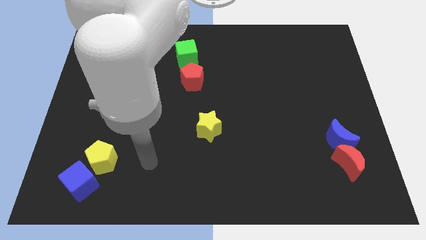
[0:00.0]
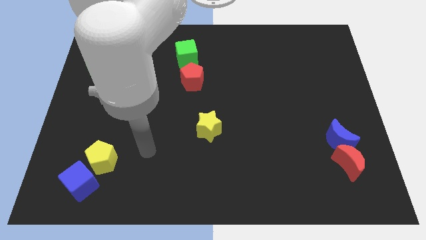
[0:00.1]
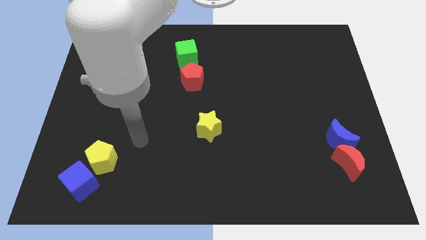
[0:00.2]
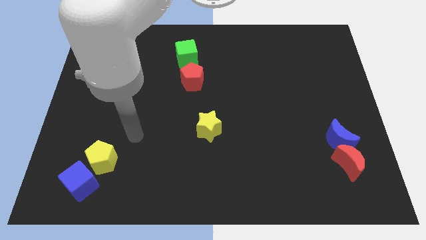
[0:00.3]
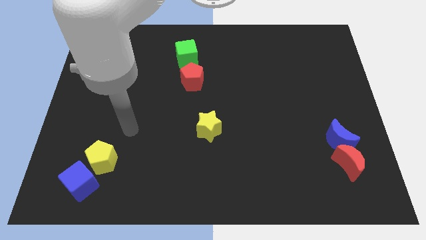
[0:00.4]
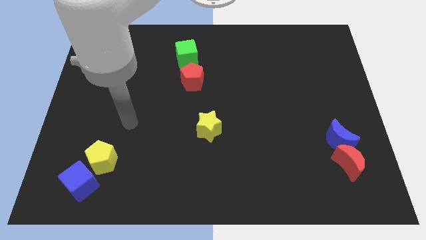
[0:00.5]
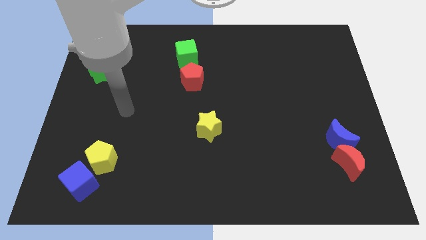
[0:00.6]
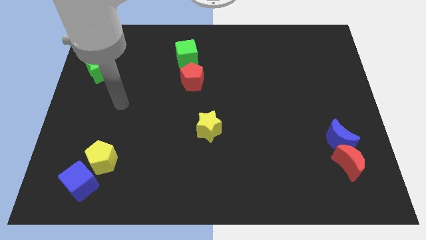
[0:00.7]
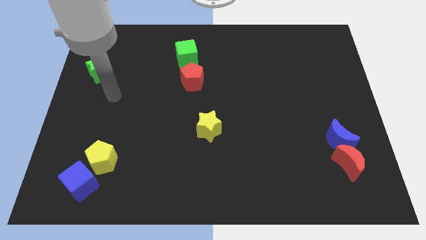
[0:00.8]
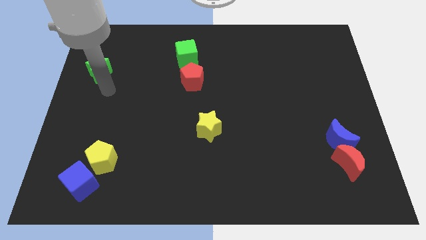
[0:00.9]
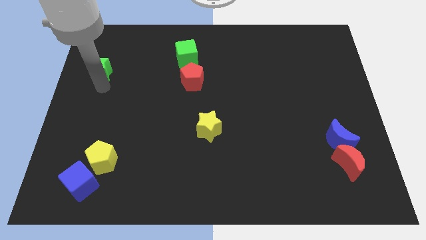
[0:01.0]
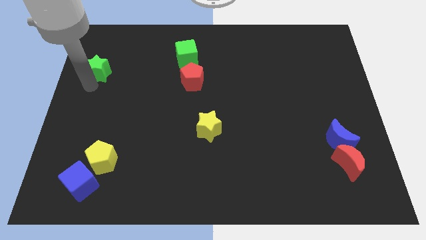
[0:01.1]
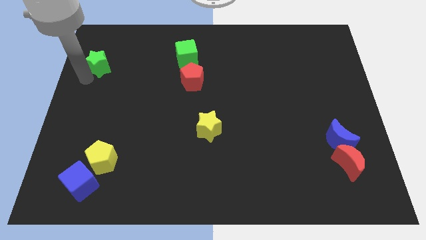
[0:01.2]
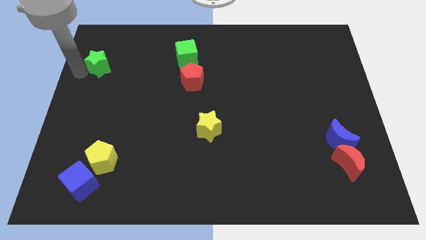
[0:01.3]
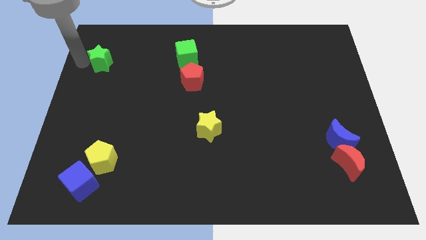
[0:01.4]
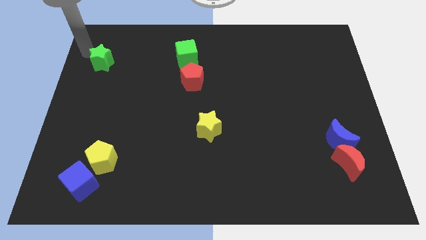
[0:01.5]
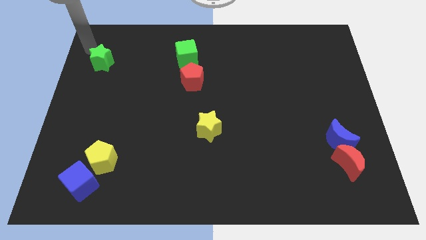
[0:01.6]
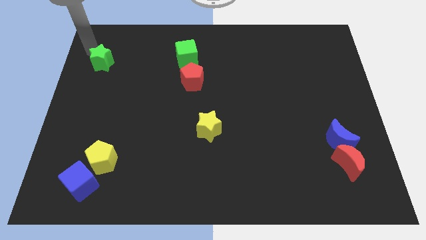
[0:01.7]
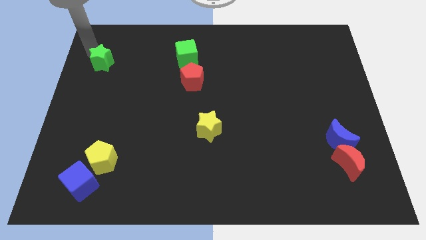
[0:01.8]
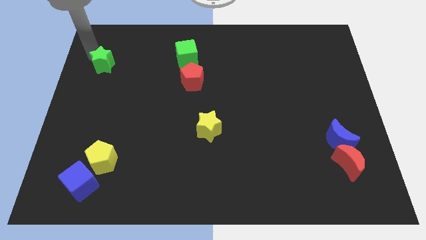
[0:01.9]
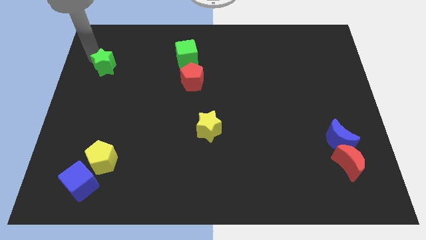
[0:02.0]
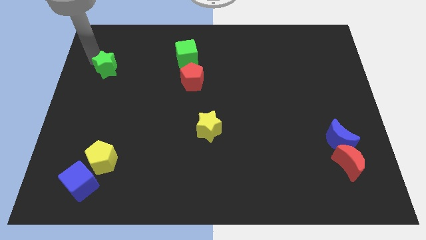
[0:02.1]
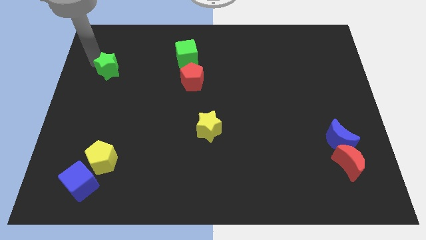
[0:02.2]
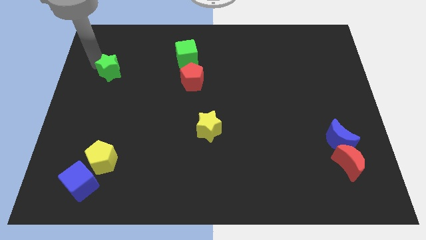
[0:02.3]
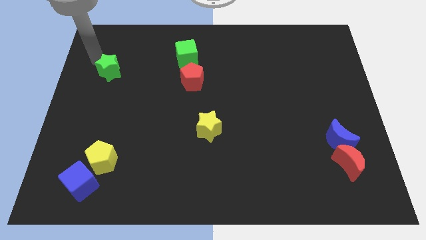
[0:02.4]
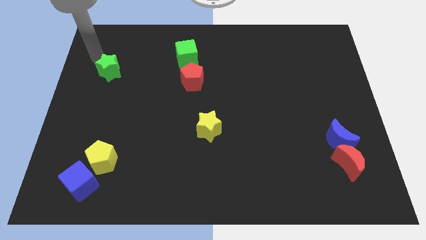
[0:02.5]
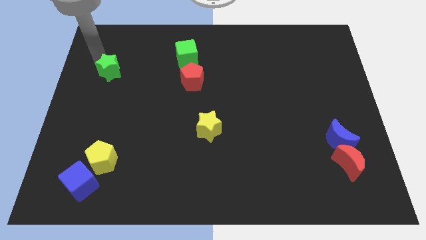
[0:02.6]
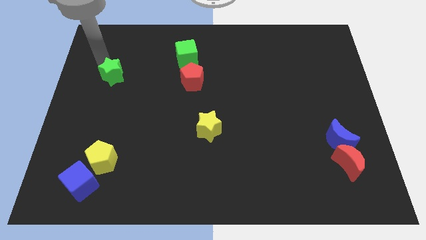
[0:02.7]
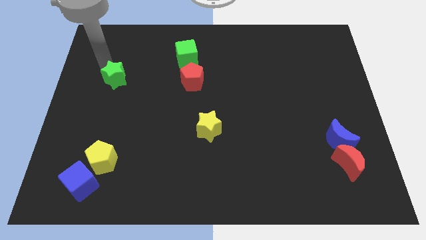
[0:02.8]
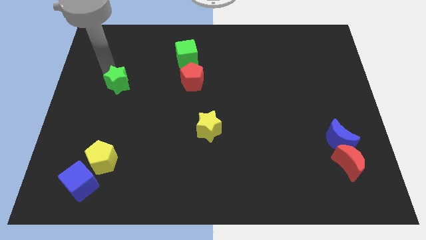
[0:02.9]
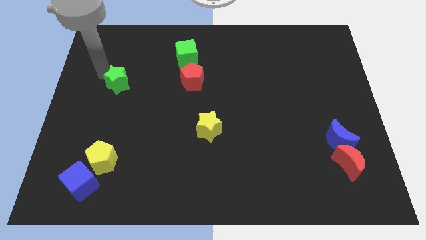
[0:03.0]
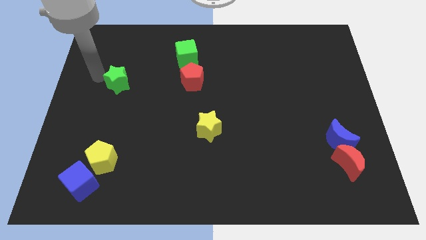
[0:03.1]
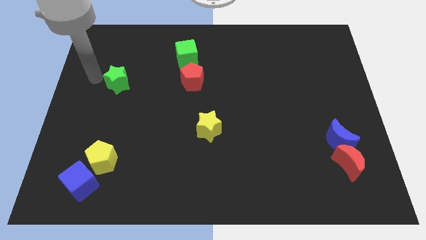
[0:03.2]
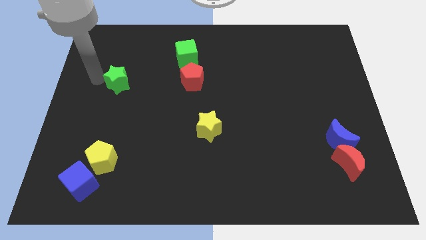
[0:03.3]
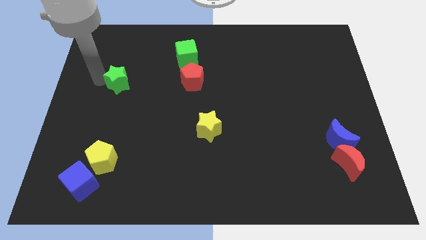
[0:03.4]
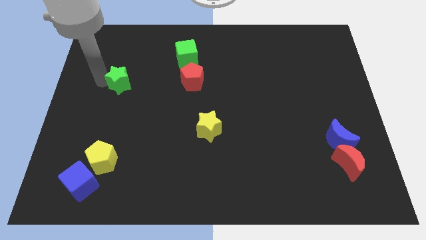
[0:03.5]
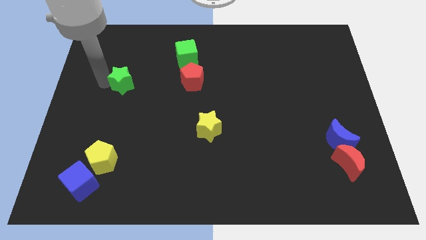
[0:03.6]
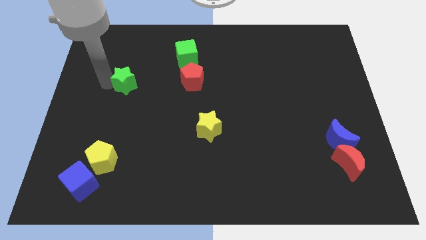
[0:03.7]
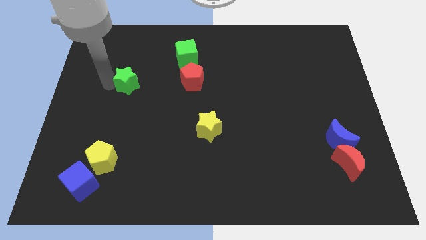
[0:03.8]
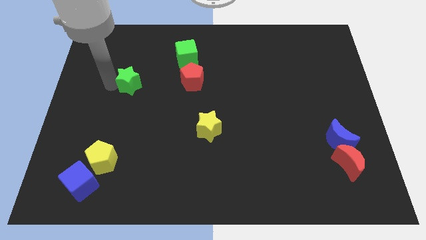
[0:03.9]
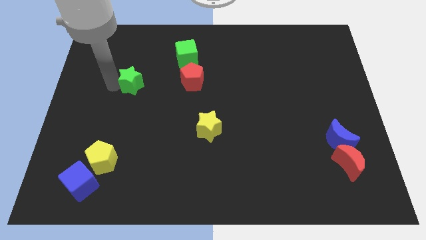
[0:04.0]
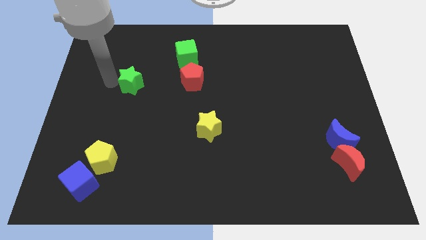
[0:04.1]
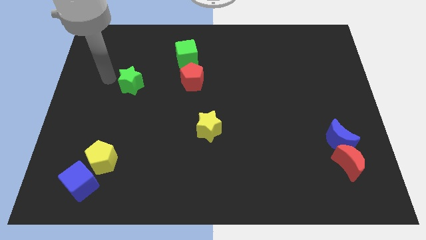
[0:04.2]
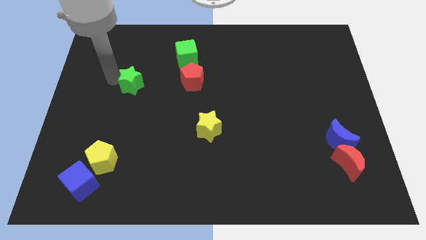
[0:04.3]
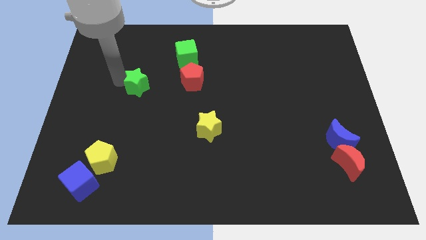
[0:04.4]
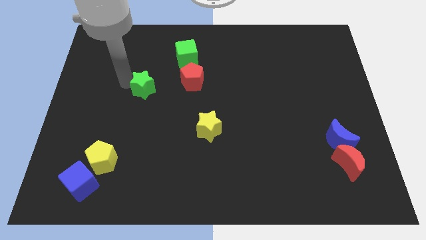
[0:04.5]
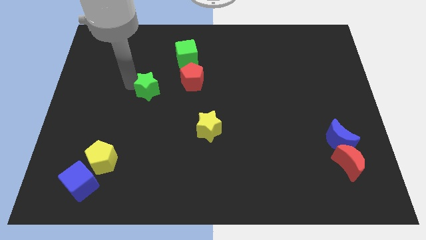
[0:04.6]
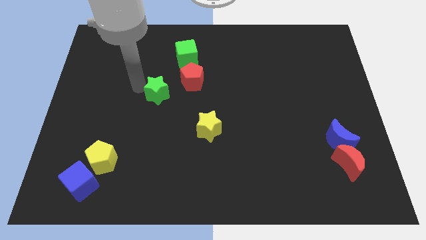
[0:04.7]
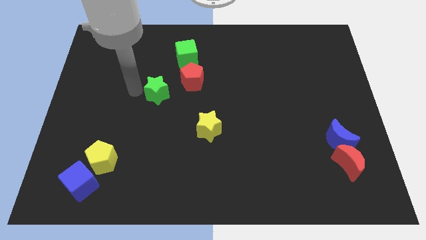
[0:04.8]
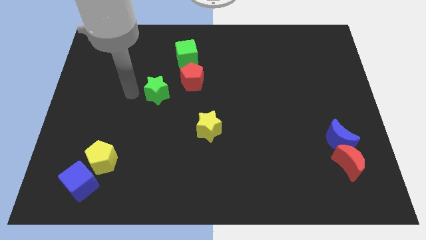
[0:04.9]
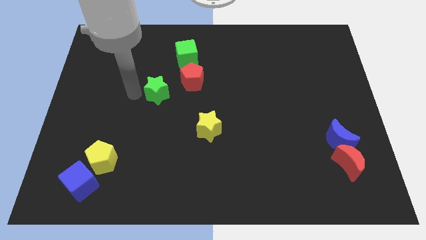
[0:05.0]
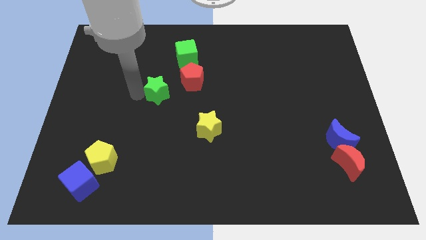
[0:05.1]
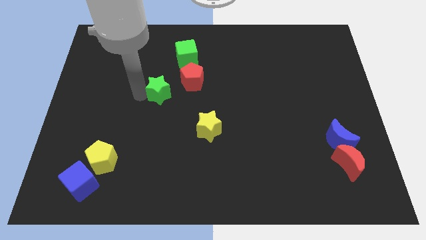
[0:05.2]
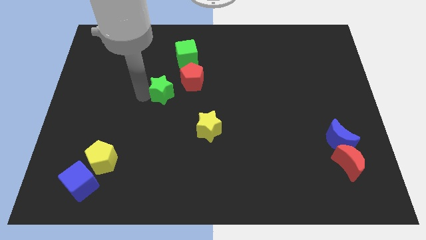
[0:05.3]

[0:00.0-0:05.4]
move the green star to the middle

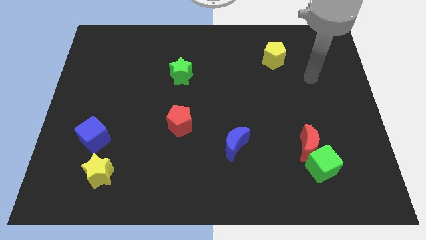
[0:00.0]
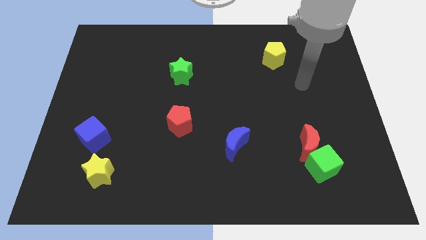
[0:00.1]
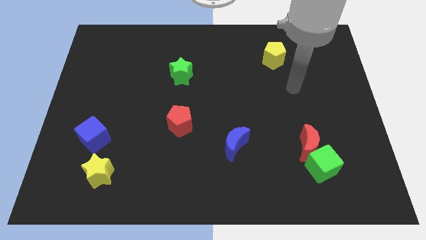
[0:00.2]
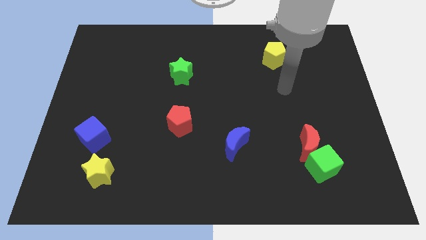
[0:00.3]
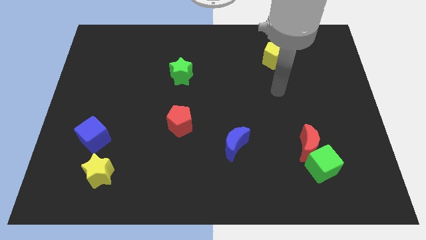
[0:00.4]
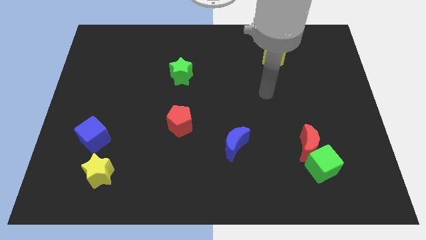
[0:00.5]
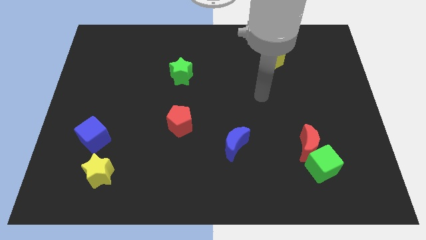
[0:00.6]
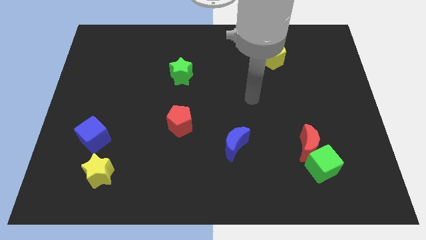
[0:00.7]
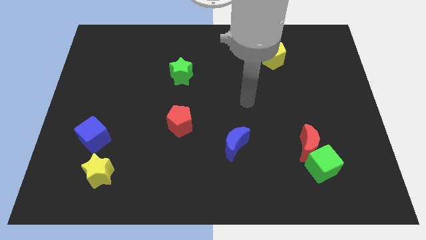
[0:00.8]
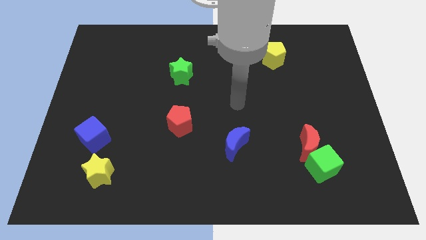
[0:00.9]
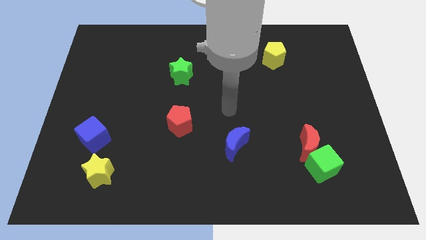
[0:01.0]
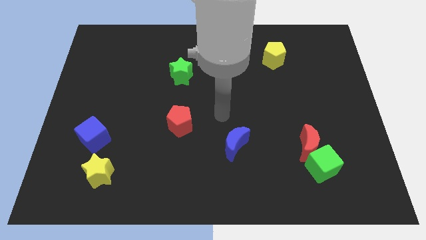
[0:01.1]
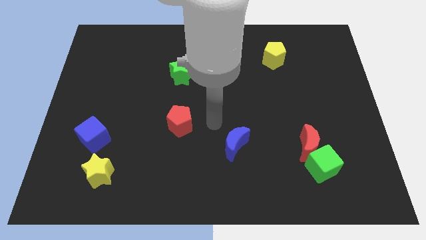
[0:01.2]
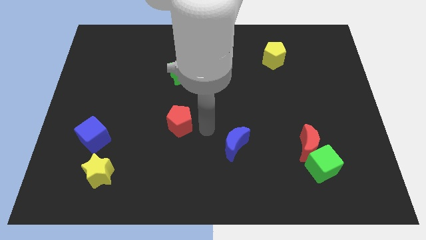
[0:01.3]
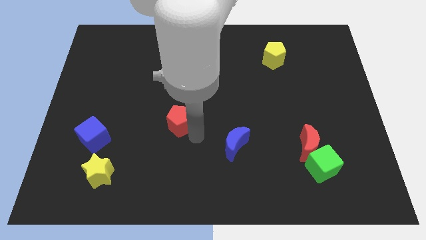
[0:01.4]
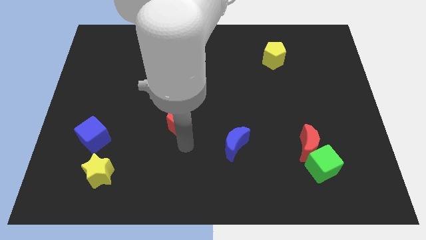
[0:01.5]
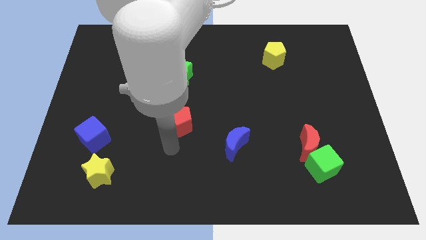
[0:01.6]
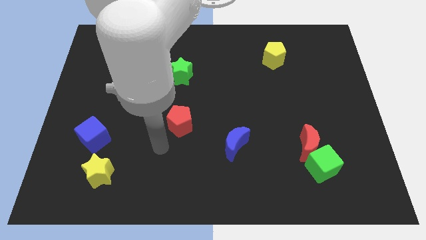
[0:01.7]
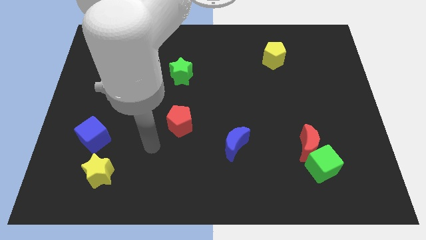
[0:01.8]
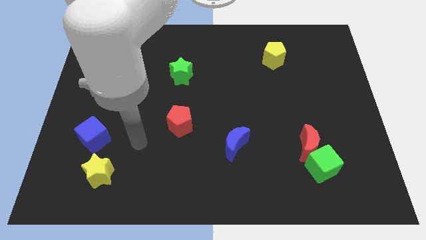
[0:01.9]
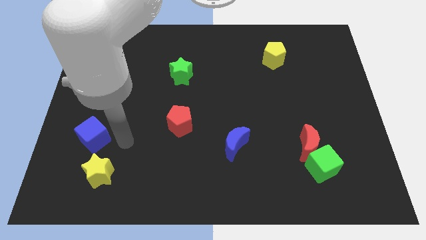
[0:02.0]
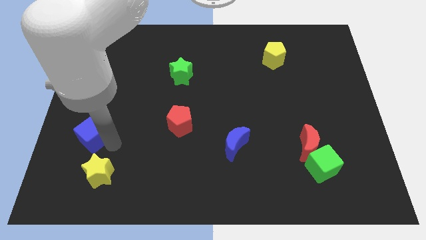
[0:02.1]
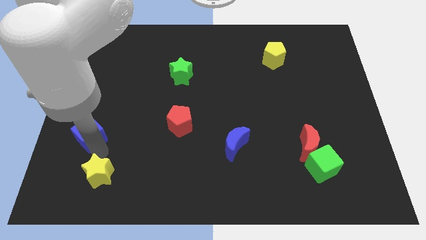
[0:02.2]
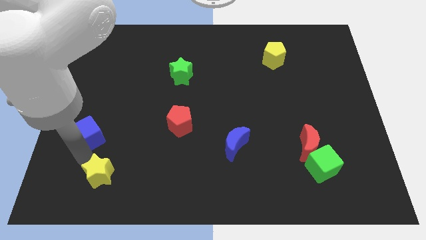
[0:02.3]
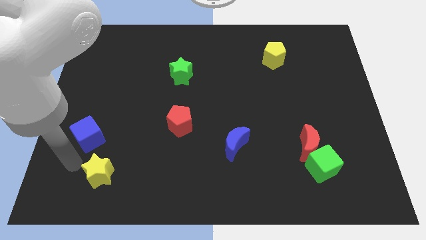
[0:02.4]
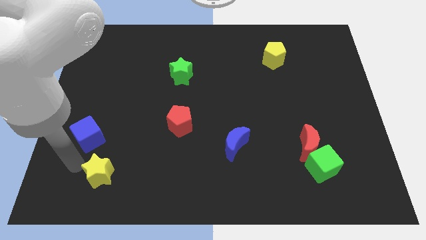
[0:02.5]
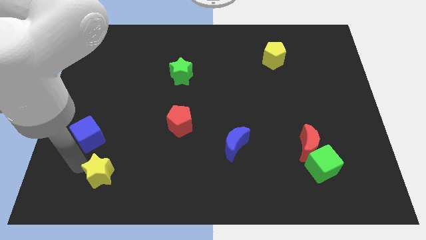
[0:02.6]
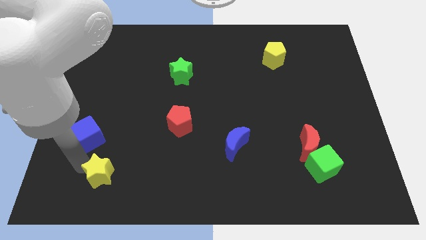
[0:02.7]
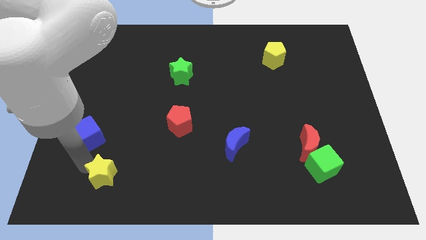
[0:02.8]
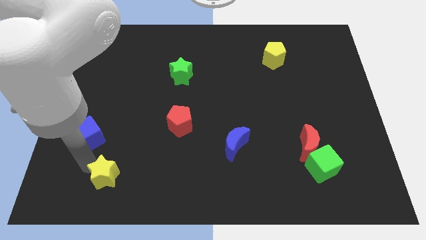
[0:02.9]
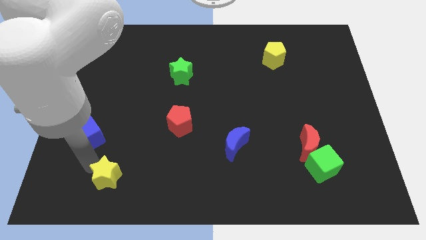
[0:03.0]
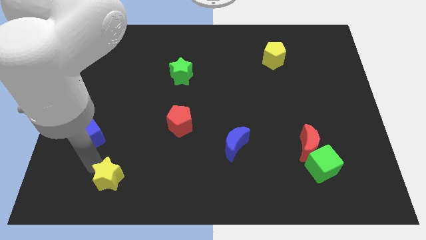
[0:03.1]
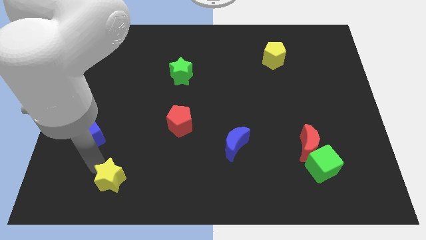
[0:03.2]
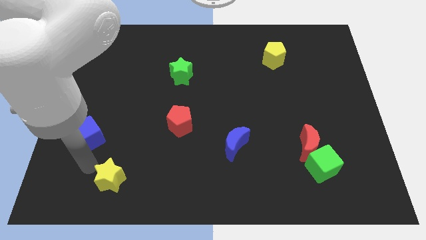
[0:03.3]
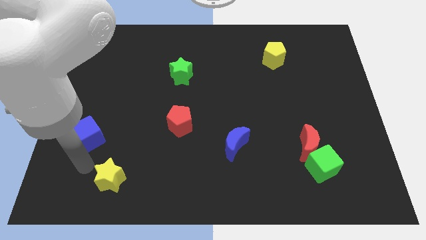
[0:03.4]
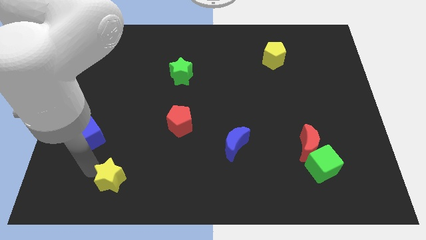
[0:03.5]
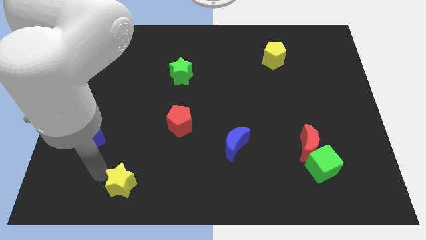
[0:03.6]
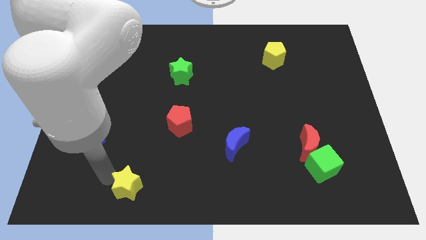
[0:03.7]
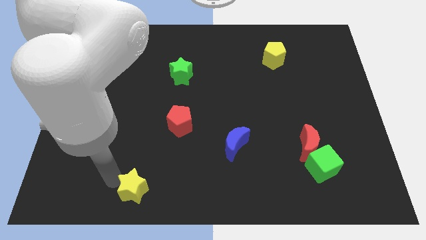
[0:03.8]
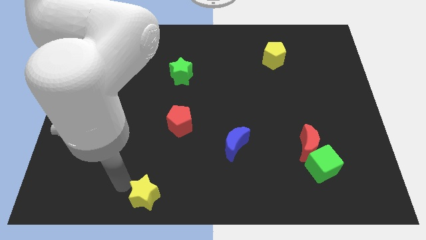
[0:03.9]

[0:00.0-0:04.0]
move the yellow star to the bottom
